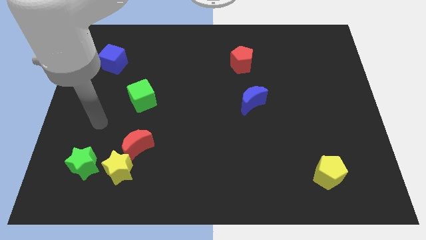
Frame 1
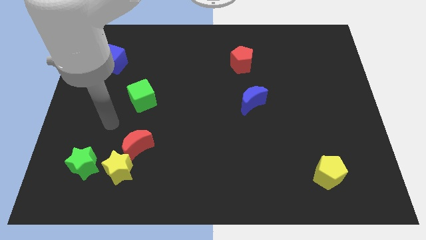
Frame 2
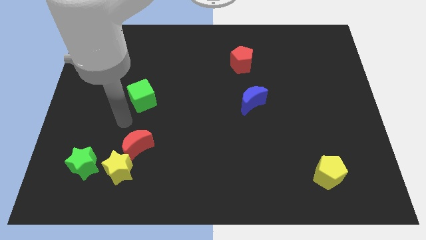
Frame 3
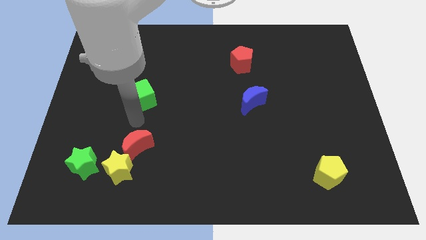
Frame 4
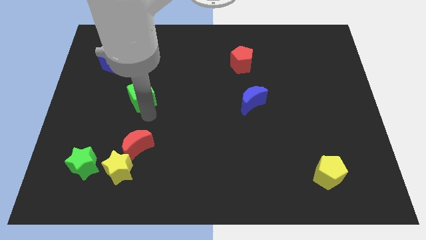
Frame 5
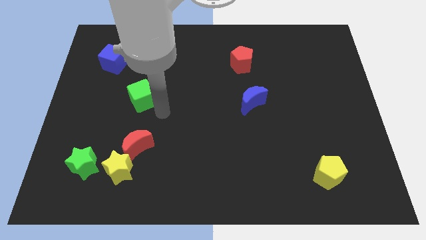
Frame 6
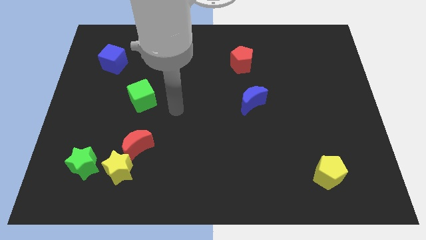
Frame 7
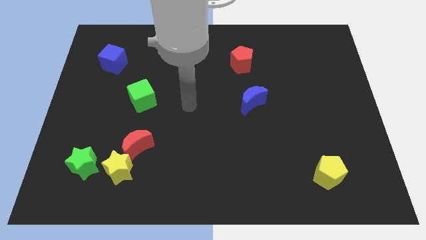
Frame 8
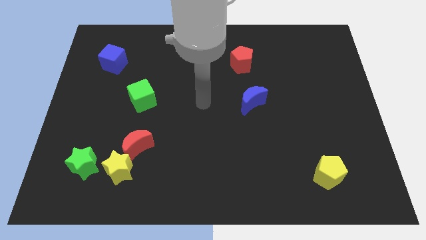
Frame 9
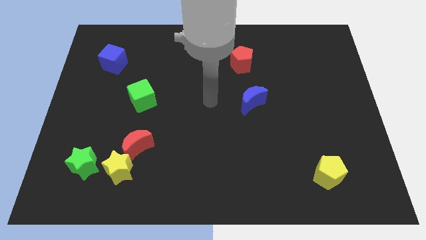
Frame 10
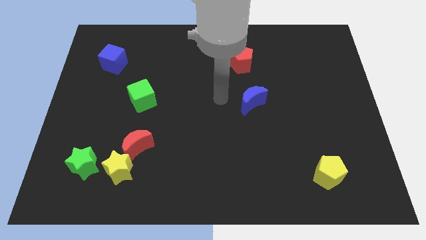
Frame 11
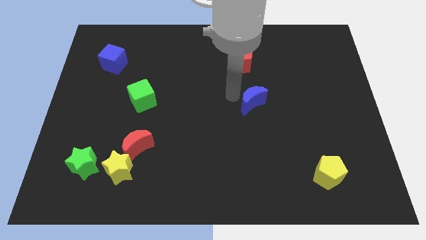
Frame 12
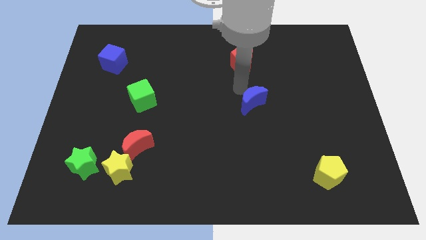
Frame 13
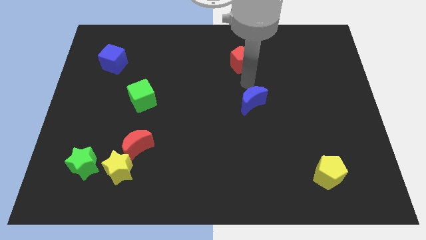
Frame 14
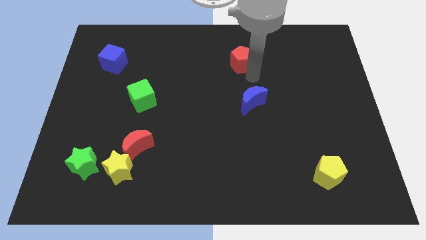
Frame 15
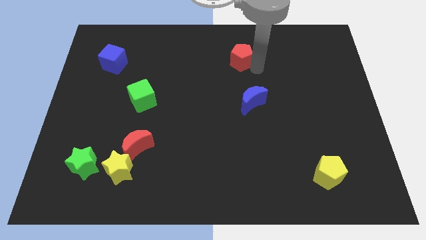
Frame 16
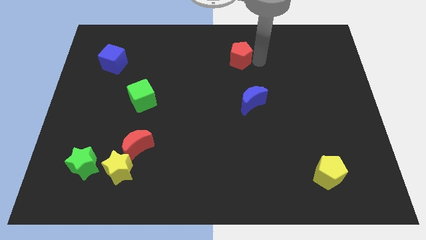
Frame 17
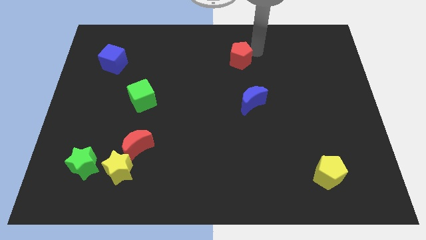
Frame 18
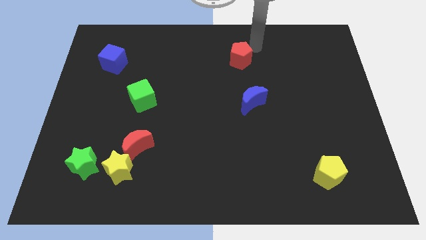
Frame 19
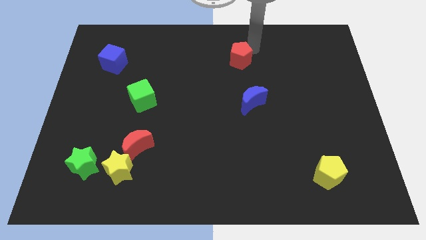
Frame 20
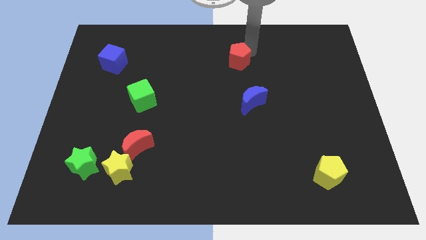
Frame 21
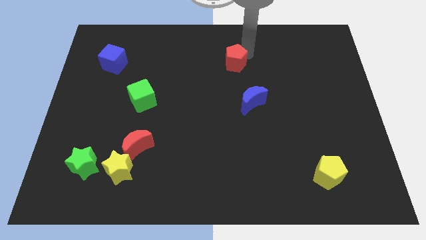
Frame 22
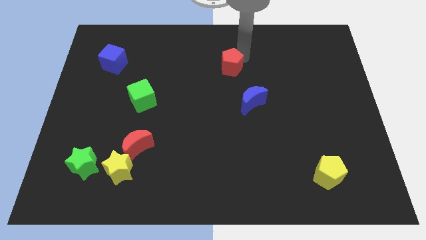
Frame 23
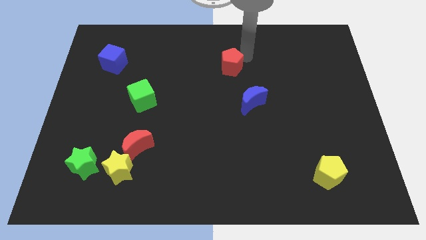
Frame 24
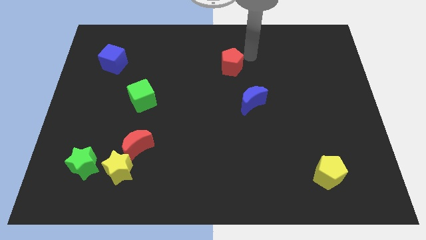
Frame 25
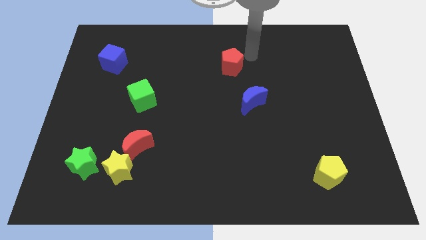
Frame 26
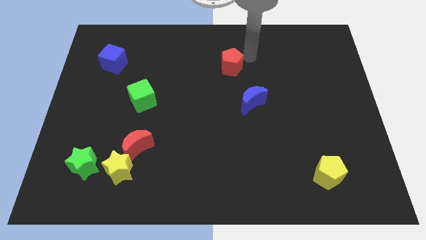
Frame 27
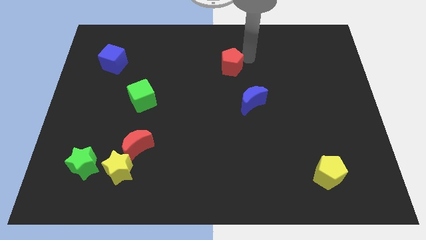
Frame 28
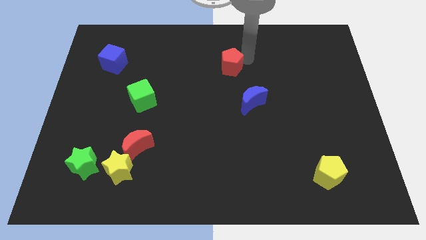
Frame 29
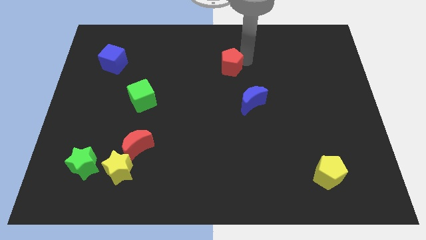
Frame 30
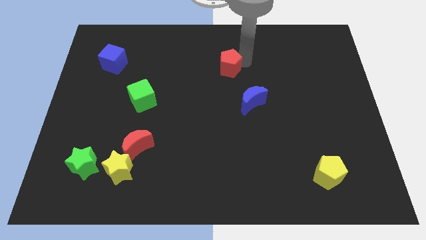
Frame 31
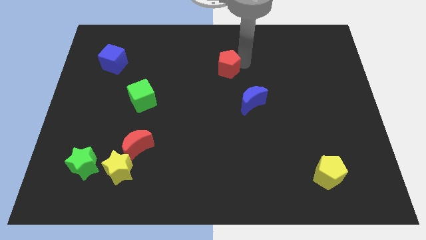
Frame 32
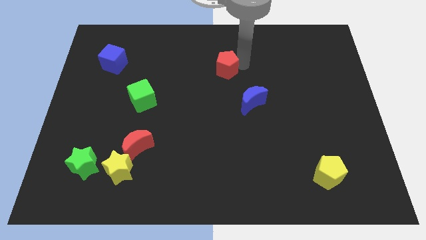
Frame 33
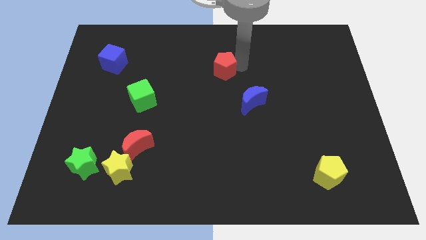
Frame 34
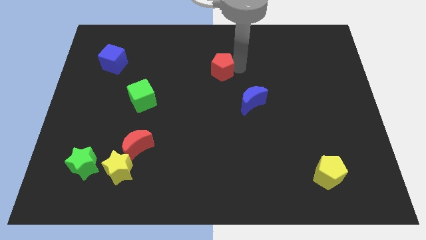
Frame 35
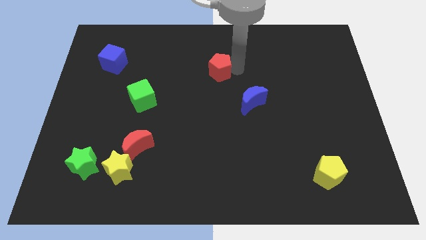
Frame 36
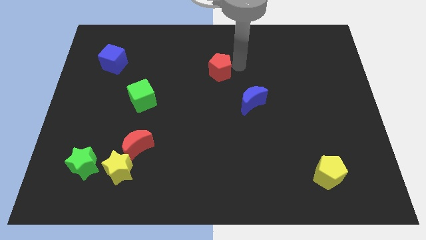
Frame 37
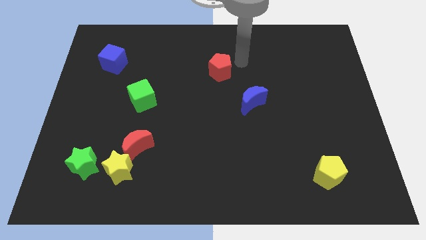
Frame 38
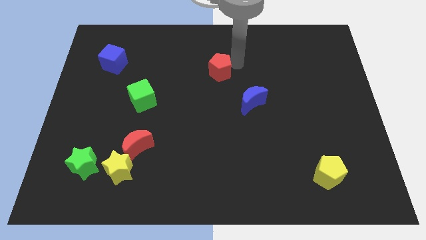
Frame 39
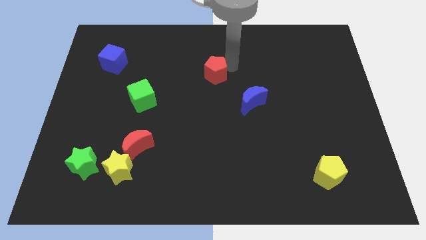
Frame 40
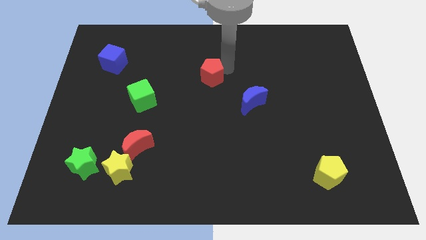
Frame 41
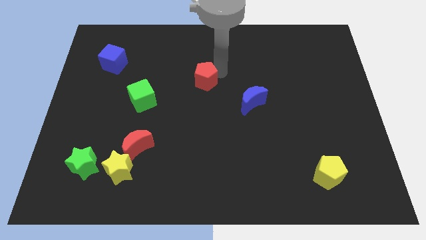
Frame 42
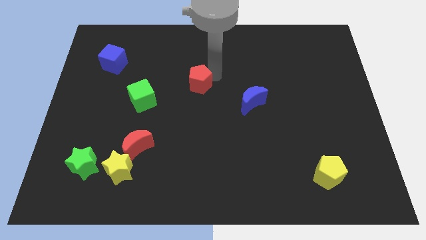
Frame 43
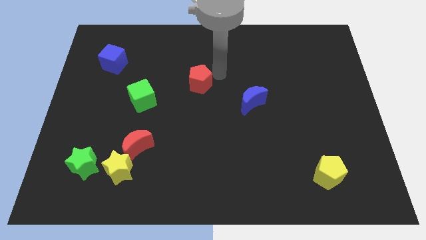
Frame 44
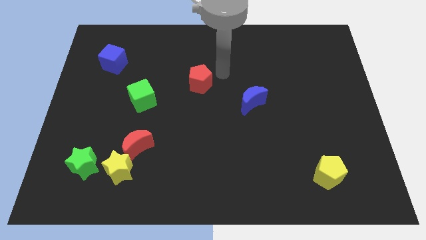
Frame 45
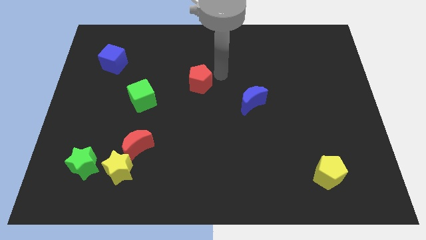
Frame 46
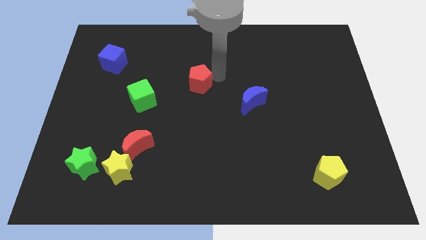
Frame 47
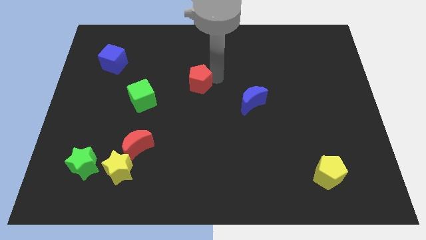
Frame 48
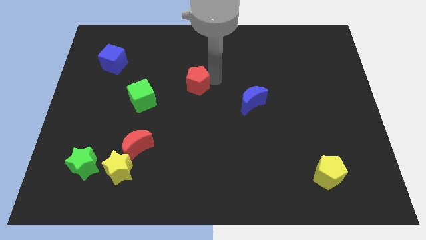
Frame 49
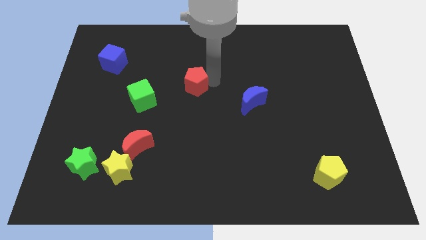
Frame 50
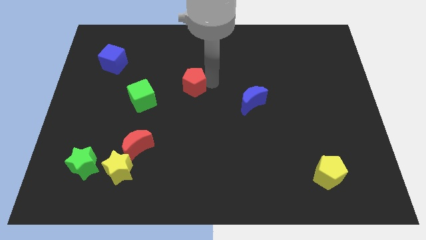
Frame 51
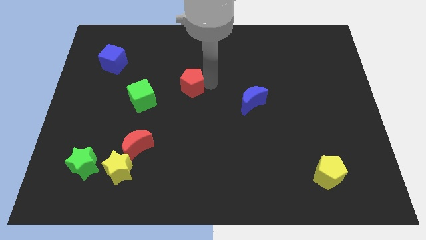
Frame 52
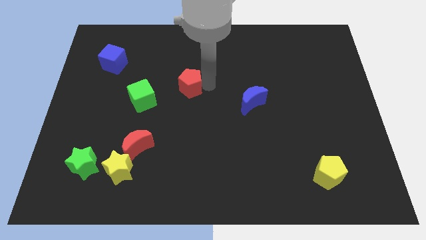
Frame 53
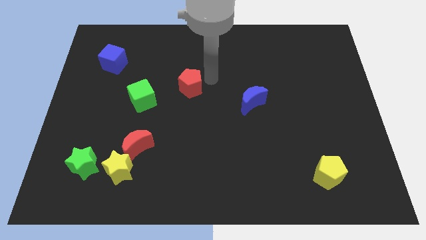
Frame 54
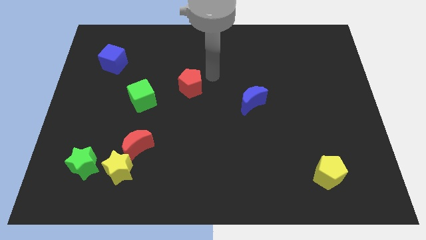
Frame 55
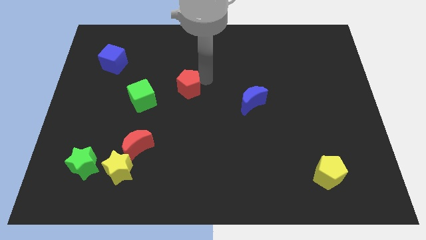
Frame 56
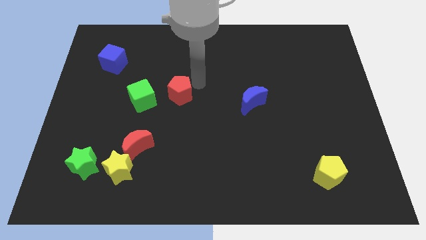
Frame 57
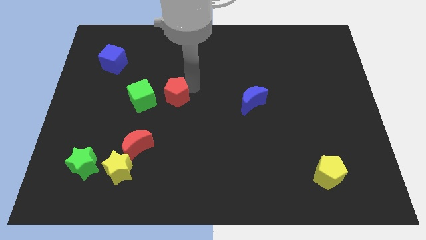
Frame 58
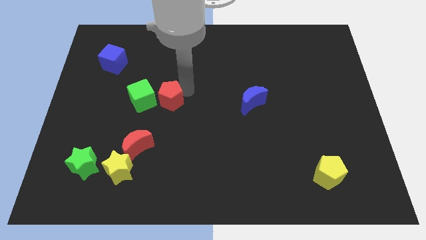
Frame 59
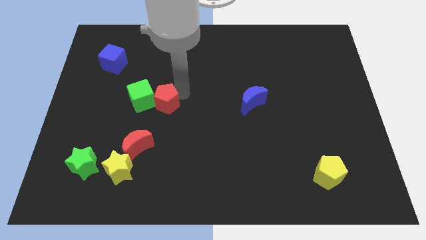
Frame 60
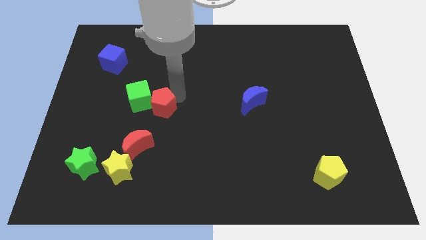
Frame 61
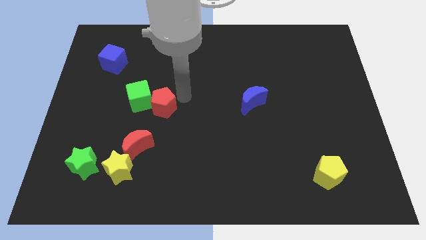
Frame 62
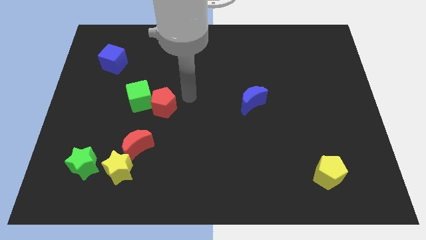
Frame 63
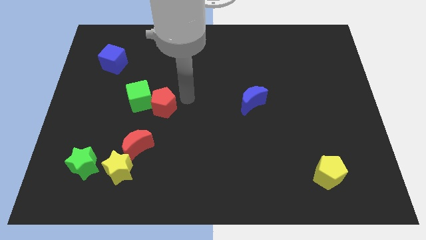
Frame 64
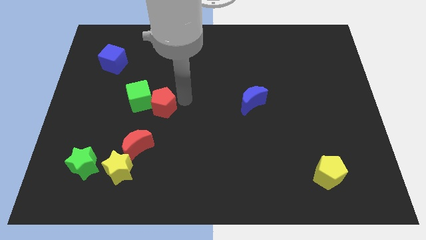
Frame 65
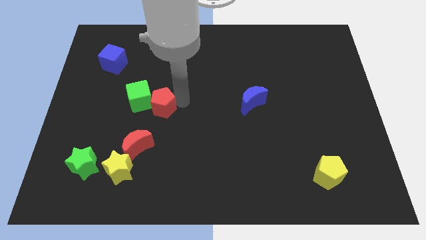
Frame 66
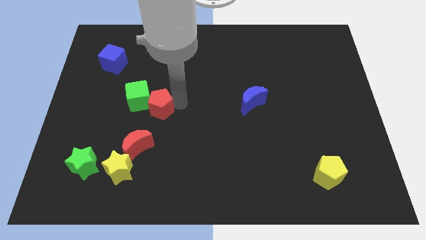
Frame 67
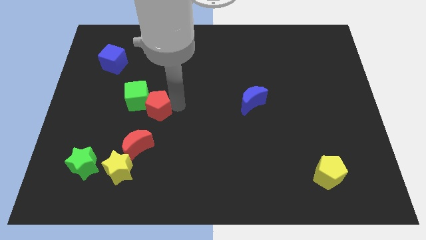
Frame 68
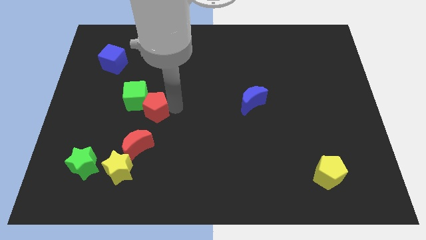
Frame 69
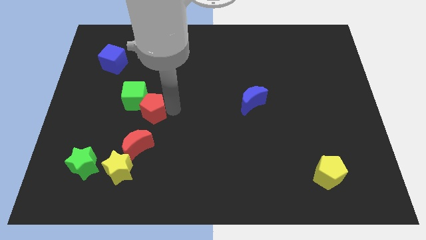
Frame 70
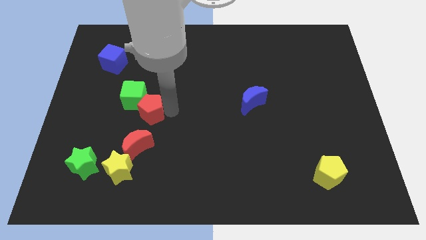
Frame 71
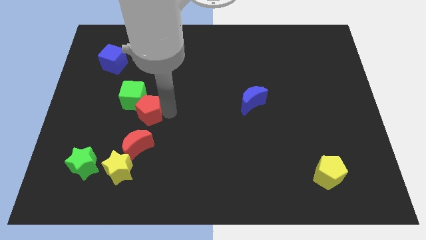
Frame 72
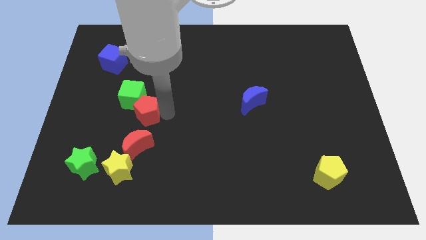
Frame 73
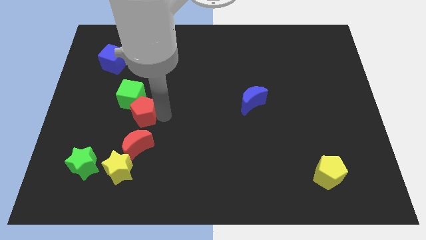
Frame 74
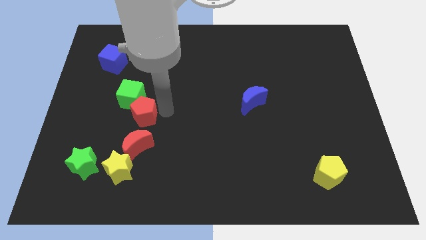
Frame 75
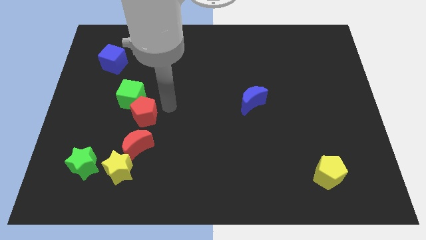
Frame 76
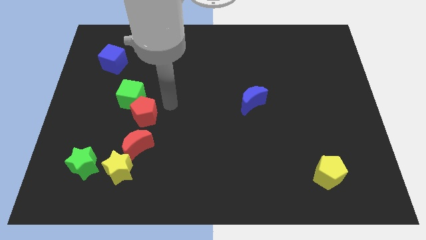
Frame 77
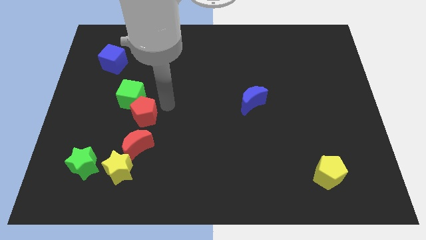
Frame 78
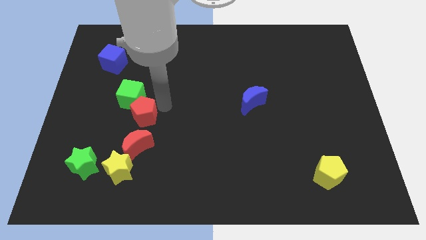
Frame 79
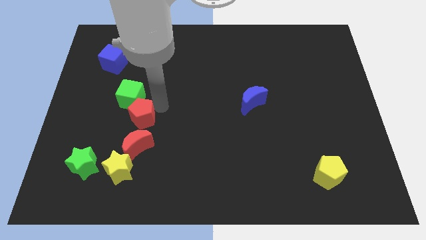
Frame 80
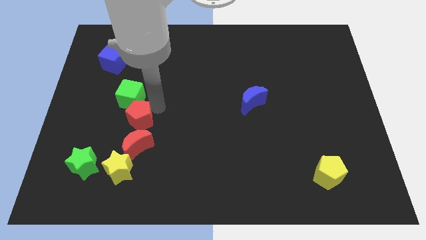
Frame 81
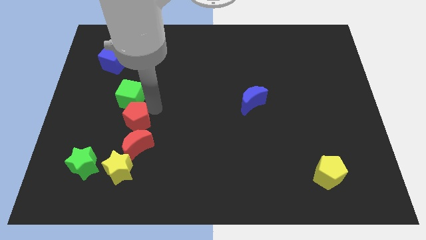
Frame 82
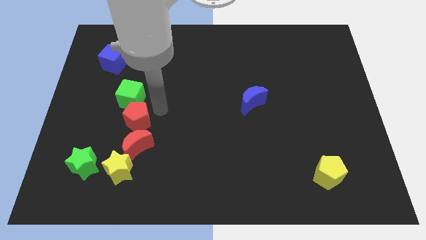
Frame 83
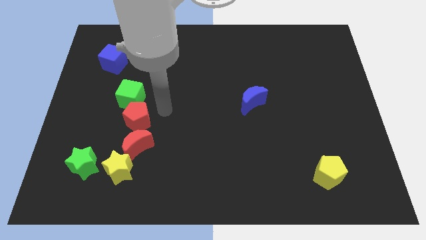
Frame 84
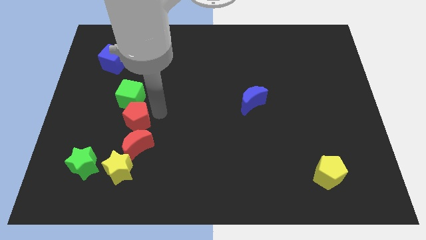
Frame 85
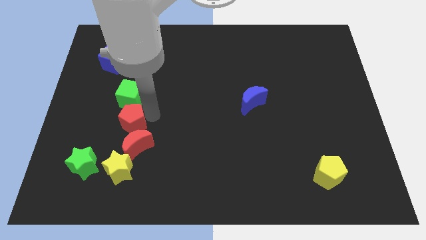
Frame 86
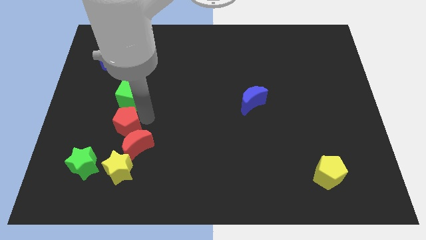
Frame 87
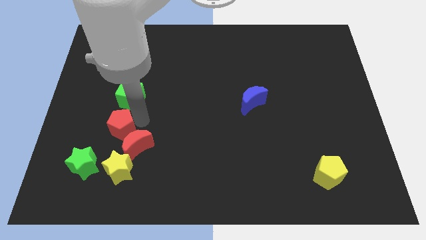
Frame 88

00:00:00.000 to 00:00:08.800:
push the red pentagon to the left side of the red moon
